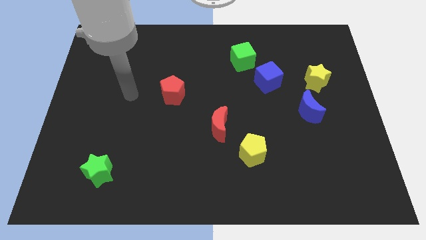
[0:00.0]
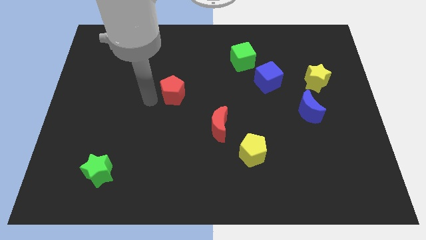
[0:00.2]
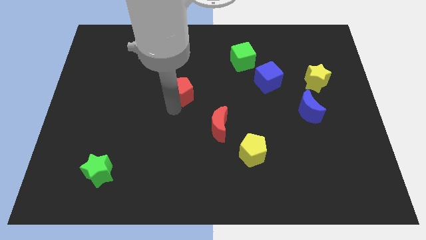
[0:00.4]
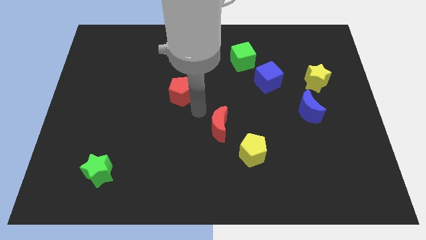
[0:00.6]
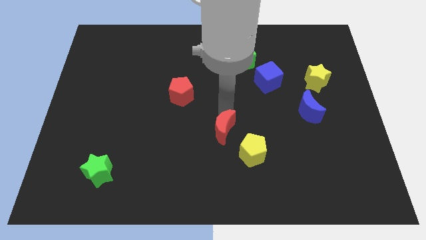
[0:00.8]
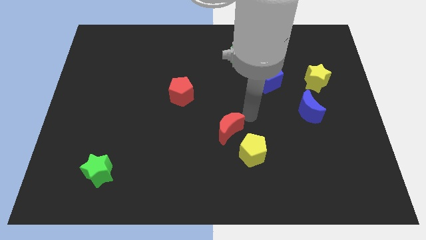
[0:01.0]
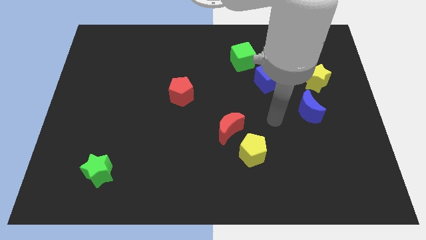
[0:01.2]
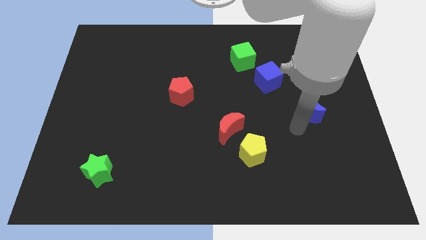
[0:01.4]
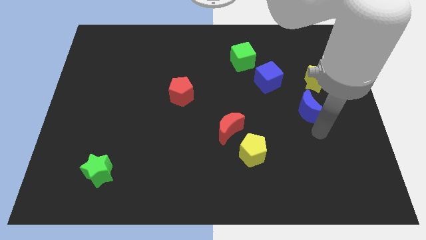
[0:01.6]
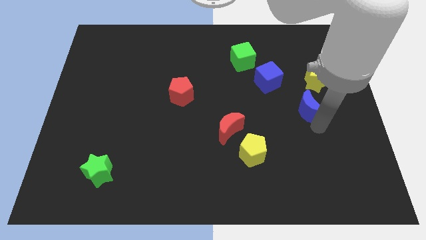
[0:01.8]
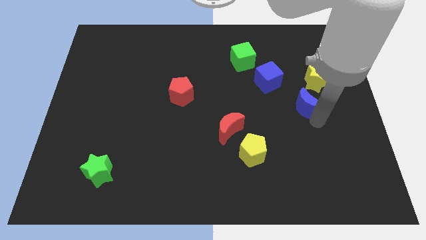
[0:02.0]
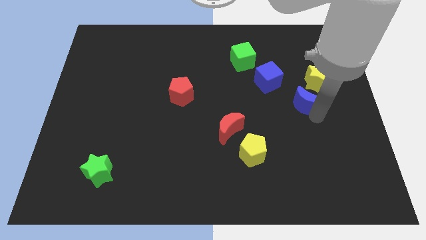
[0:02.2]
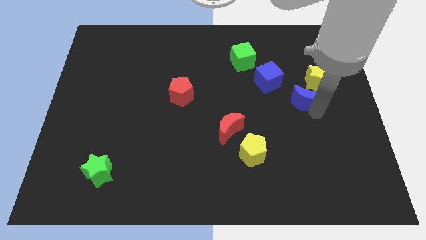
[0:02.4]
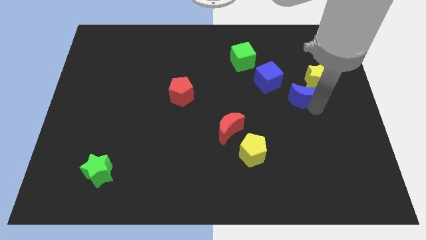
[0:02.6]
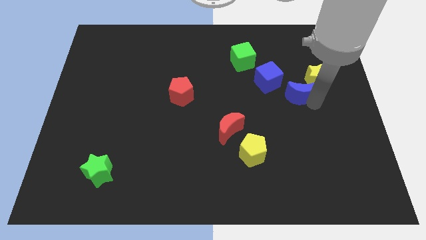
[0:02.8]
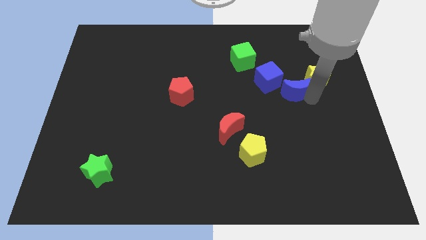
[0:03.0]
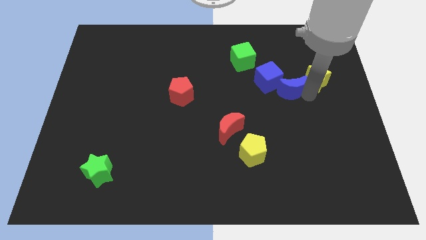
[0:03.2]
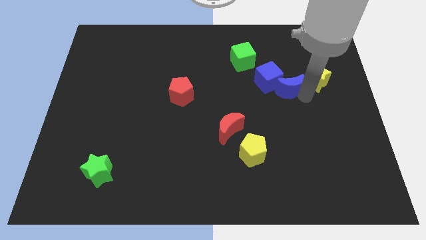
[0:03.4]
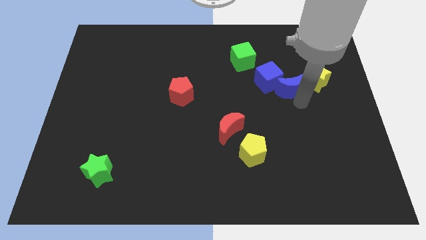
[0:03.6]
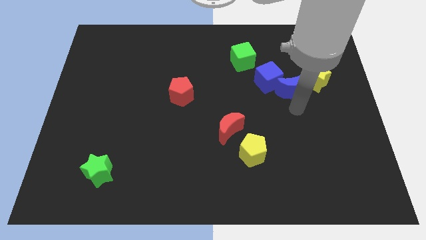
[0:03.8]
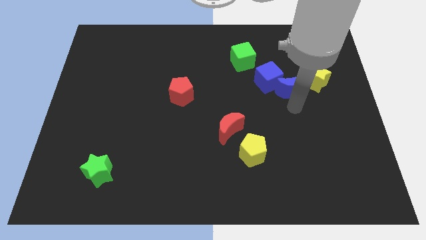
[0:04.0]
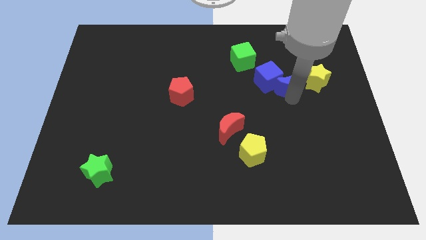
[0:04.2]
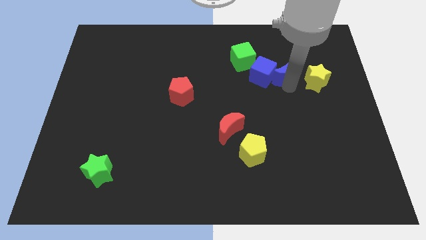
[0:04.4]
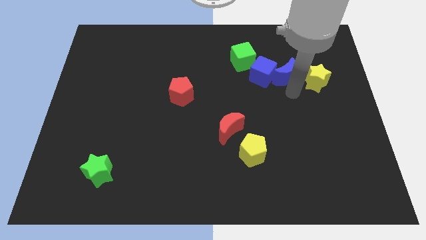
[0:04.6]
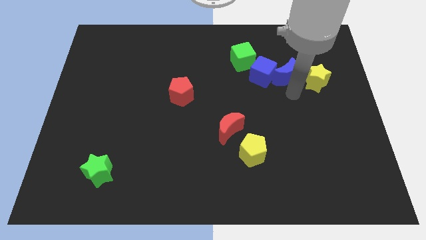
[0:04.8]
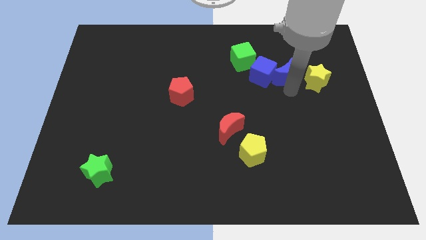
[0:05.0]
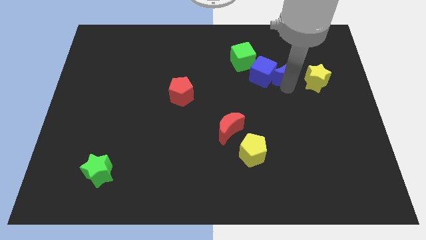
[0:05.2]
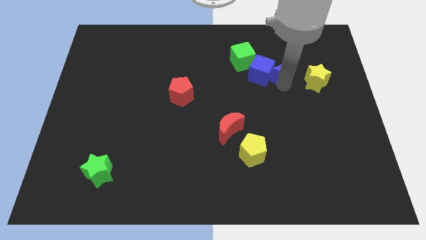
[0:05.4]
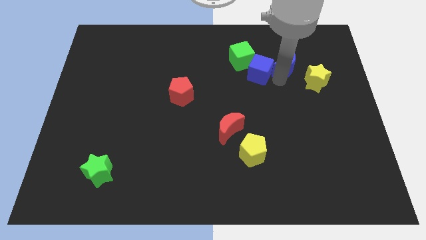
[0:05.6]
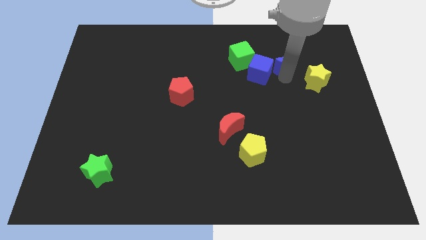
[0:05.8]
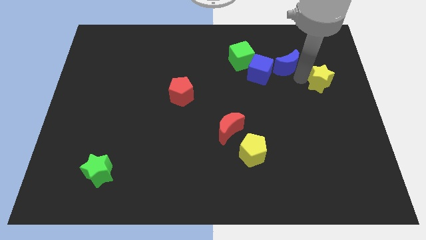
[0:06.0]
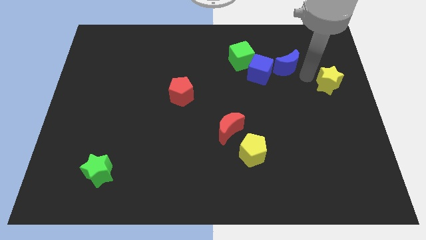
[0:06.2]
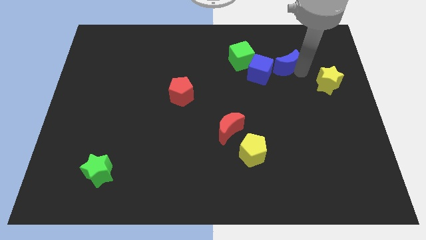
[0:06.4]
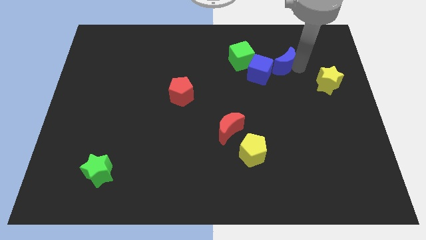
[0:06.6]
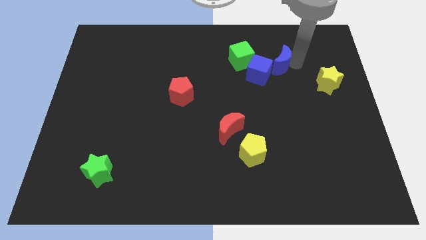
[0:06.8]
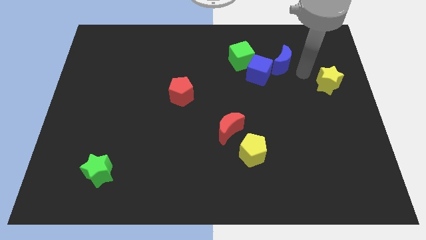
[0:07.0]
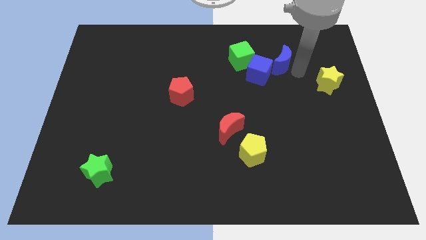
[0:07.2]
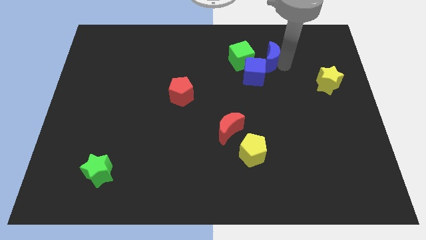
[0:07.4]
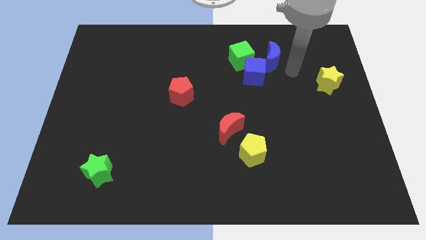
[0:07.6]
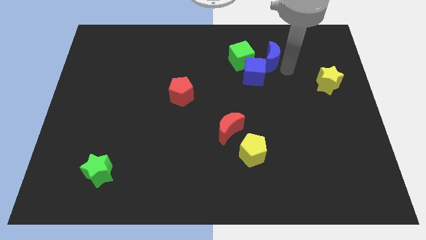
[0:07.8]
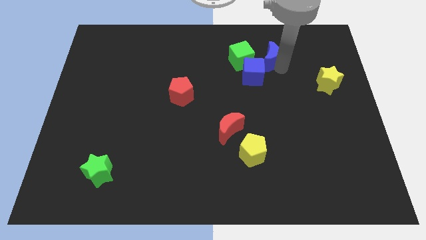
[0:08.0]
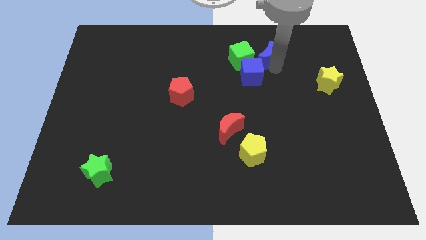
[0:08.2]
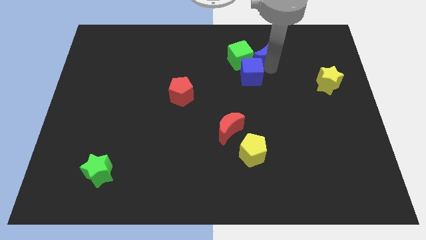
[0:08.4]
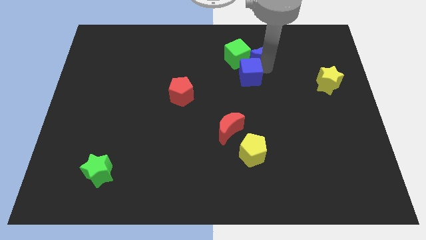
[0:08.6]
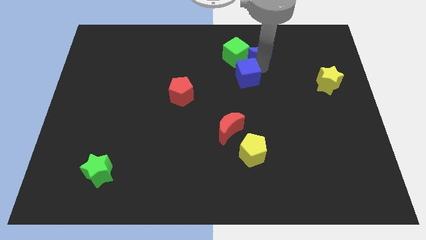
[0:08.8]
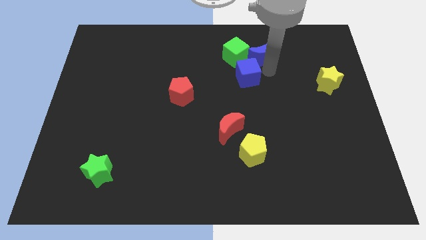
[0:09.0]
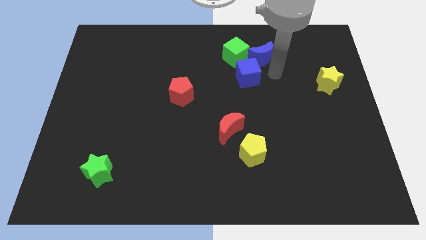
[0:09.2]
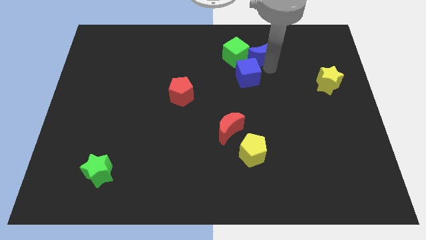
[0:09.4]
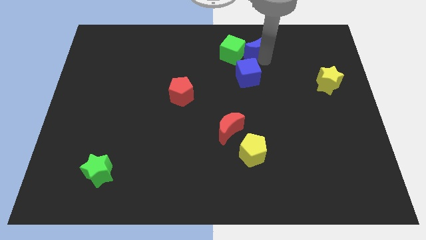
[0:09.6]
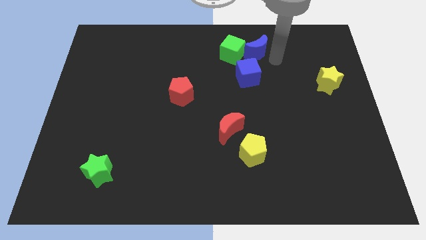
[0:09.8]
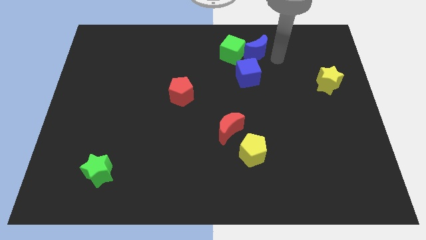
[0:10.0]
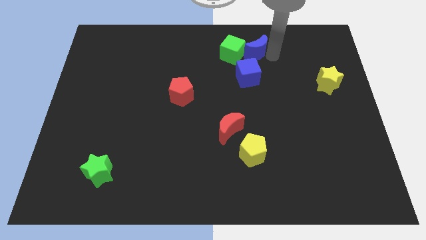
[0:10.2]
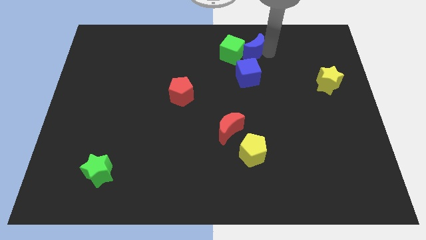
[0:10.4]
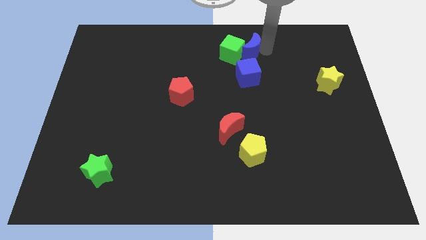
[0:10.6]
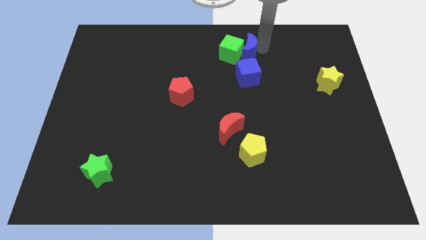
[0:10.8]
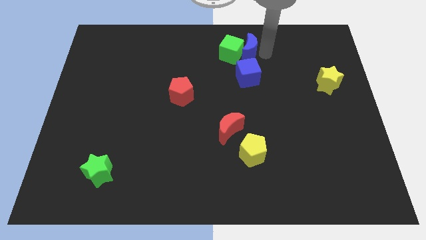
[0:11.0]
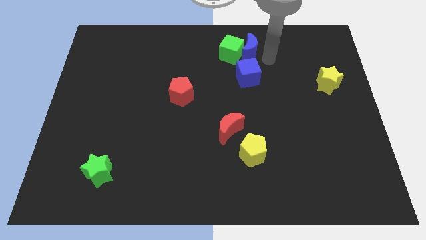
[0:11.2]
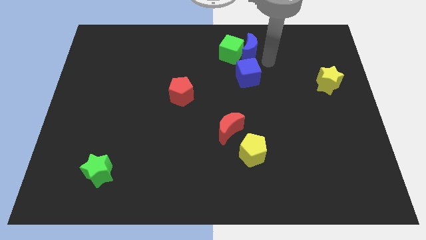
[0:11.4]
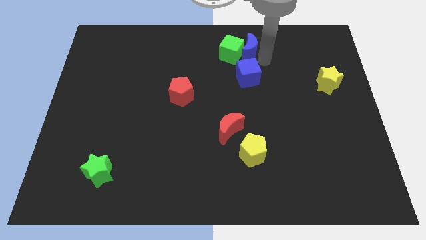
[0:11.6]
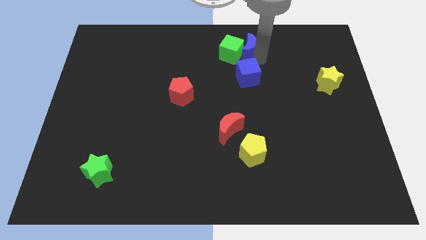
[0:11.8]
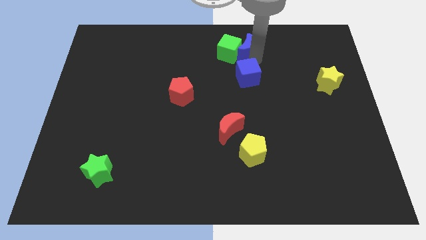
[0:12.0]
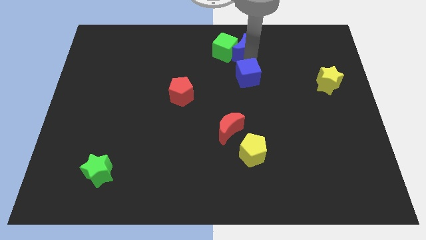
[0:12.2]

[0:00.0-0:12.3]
put the blue moon to the top side

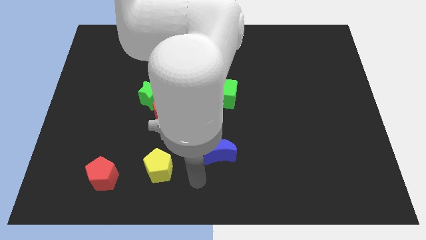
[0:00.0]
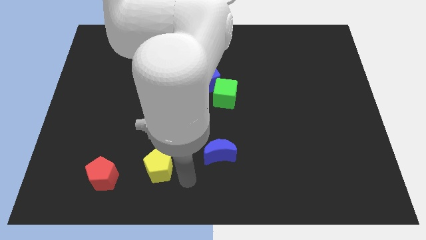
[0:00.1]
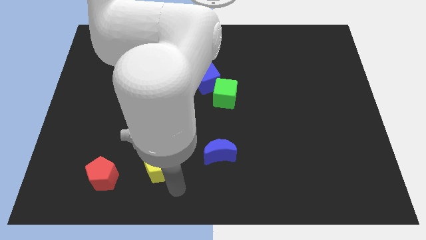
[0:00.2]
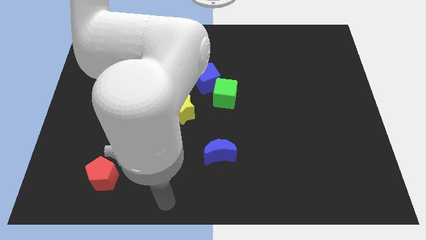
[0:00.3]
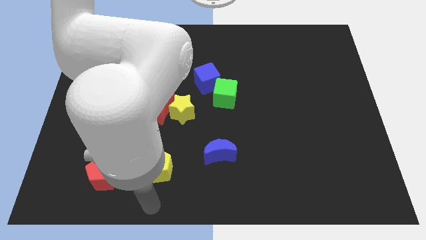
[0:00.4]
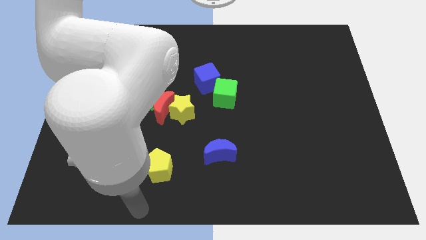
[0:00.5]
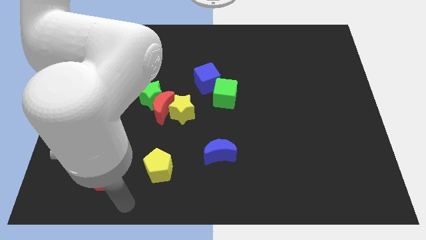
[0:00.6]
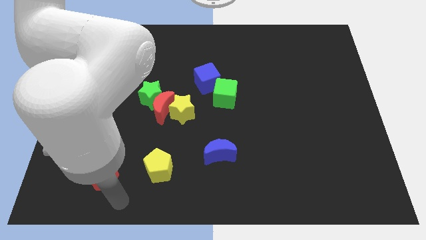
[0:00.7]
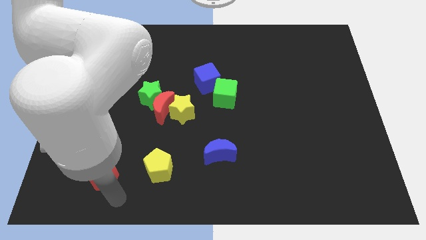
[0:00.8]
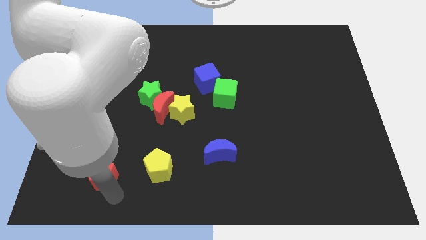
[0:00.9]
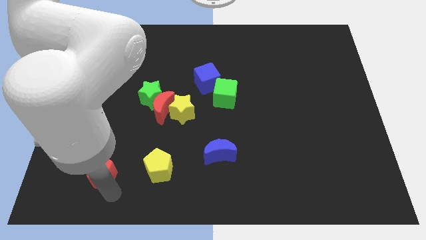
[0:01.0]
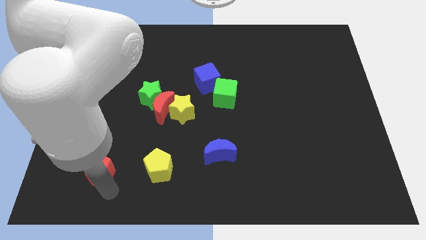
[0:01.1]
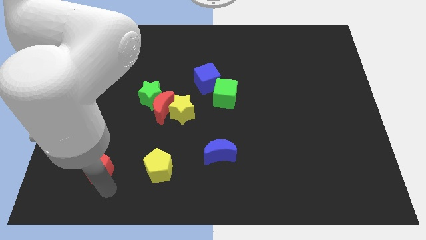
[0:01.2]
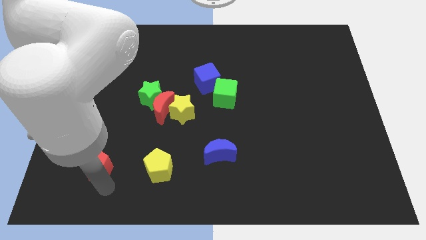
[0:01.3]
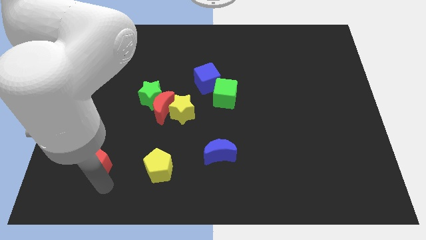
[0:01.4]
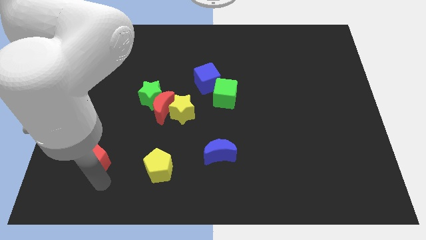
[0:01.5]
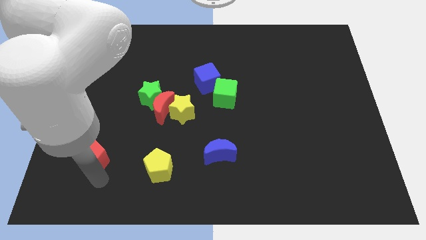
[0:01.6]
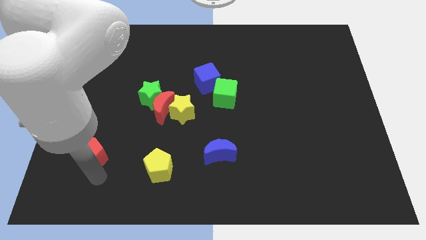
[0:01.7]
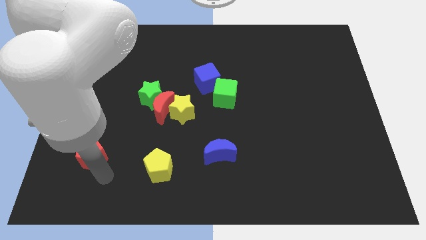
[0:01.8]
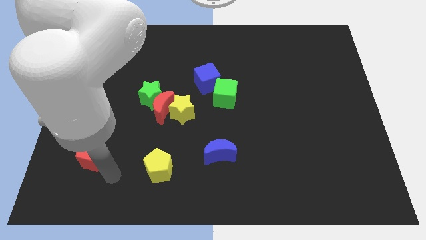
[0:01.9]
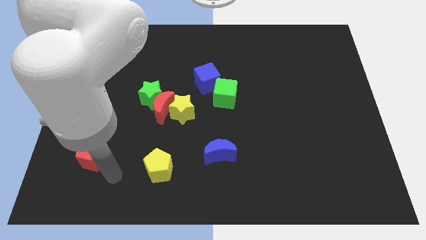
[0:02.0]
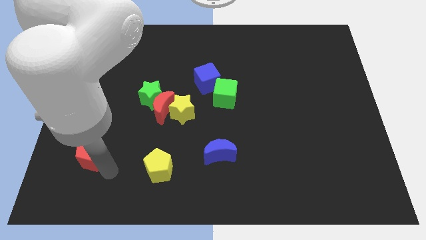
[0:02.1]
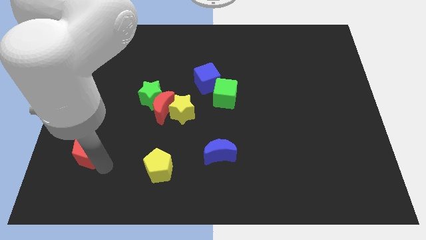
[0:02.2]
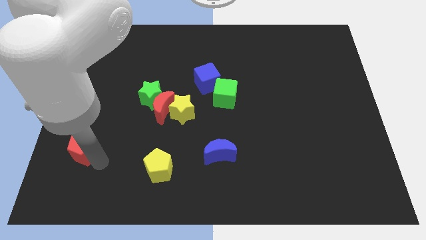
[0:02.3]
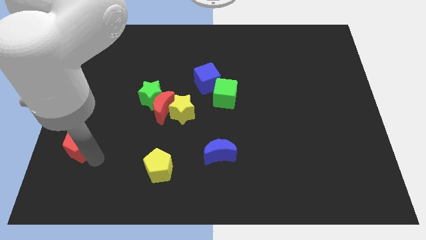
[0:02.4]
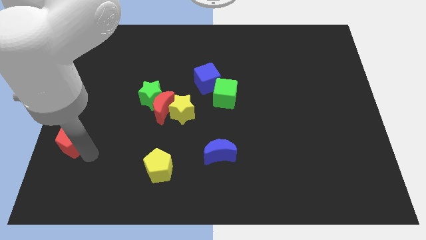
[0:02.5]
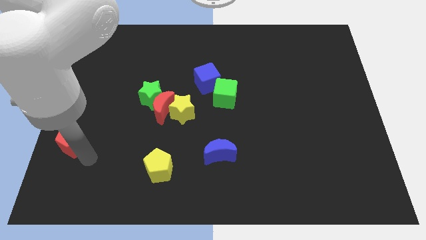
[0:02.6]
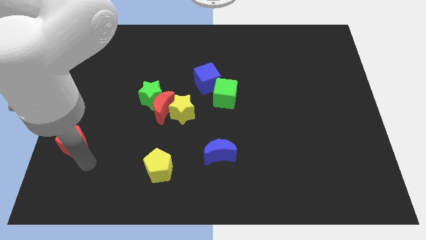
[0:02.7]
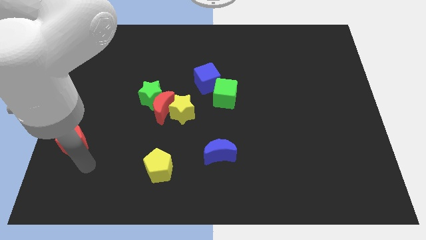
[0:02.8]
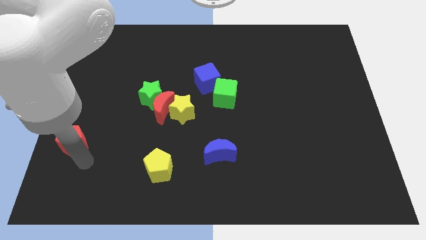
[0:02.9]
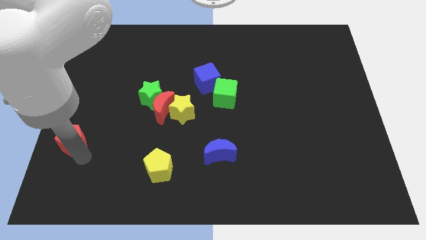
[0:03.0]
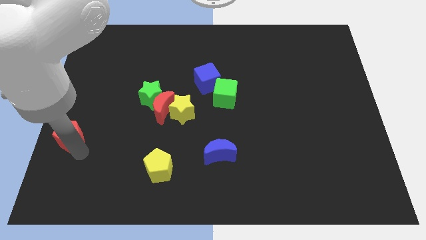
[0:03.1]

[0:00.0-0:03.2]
push the red pentagon to the center left
